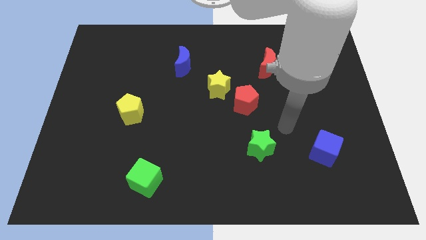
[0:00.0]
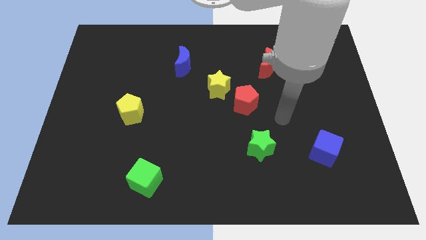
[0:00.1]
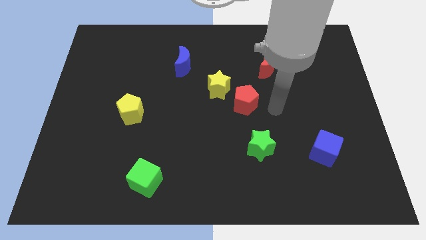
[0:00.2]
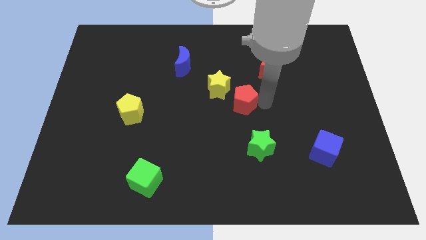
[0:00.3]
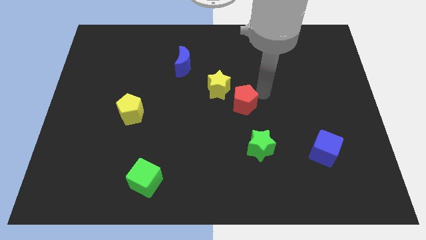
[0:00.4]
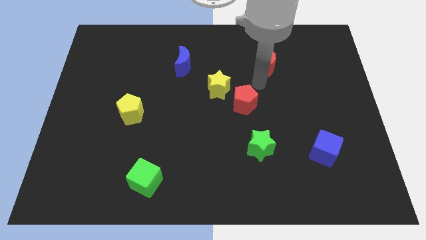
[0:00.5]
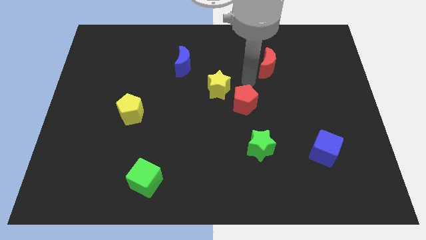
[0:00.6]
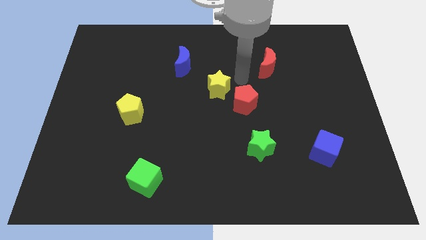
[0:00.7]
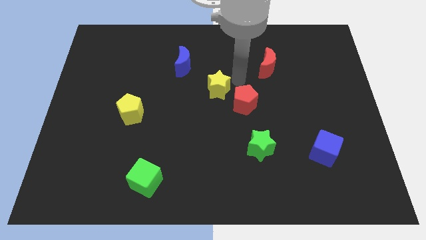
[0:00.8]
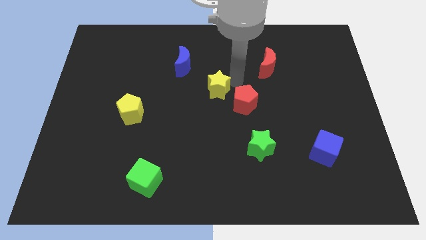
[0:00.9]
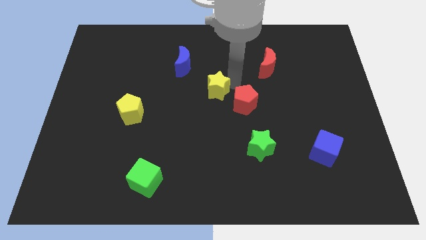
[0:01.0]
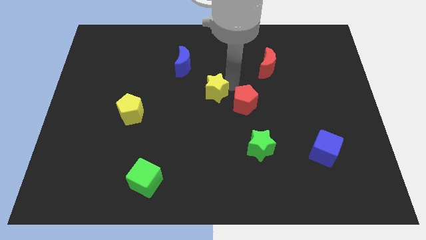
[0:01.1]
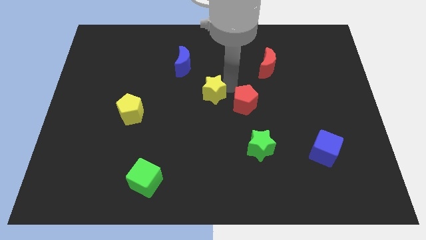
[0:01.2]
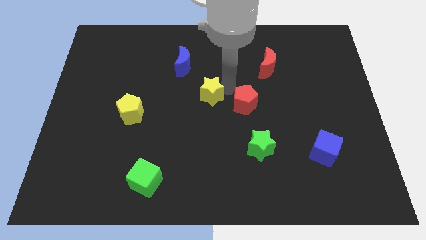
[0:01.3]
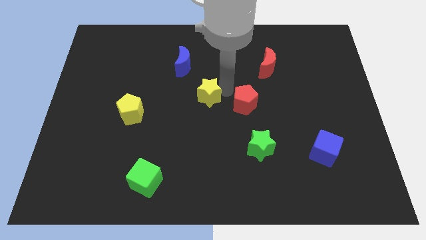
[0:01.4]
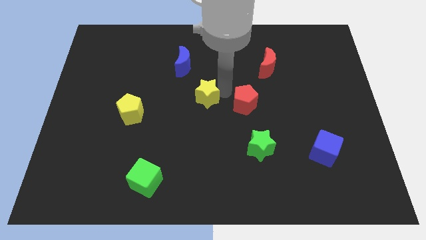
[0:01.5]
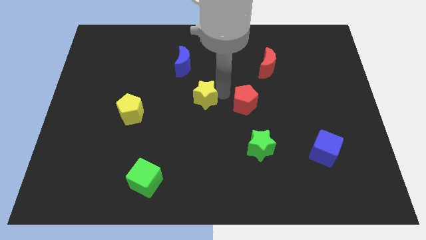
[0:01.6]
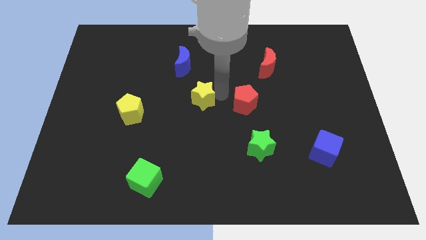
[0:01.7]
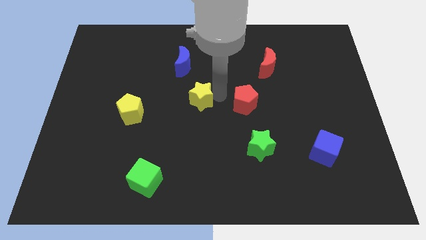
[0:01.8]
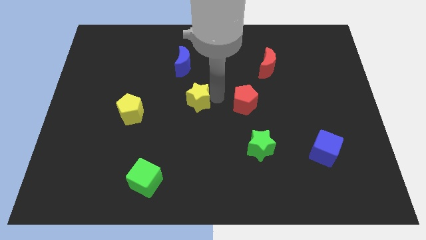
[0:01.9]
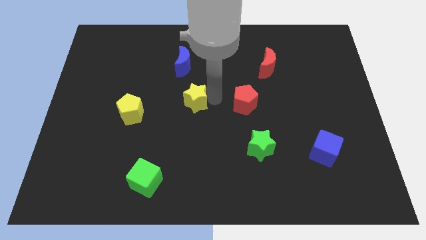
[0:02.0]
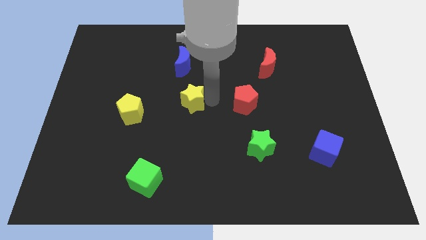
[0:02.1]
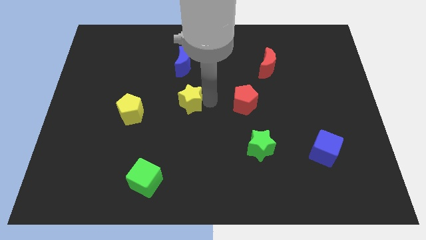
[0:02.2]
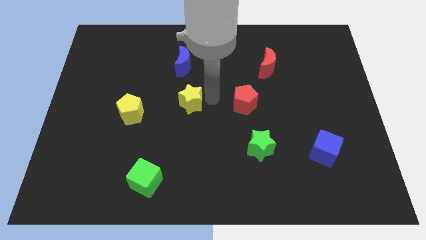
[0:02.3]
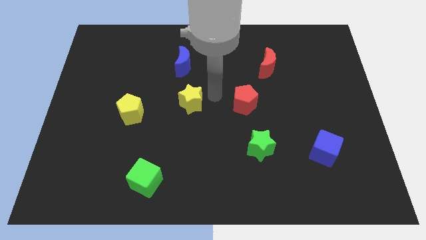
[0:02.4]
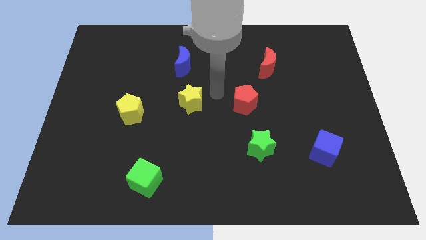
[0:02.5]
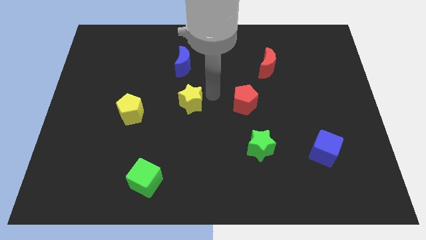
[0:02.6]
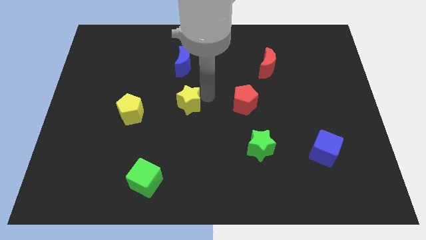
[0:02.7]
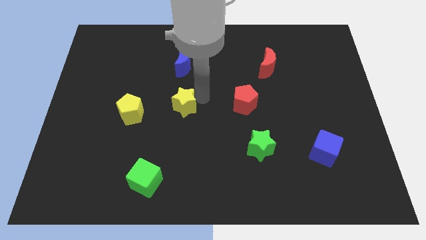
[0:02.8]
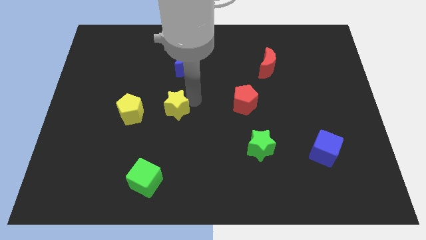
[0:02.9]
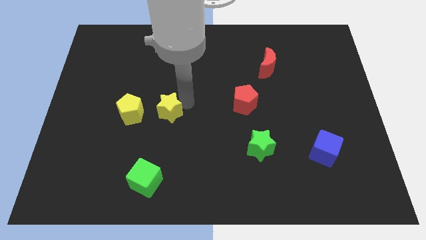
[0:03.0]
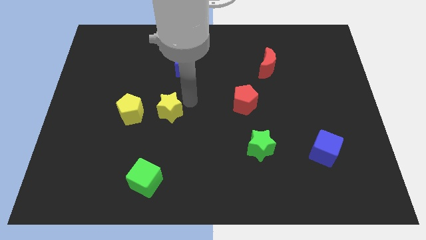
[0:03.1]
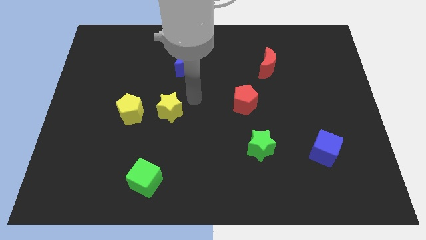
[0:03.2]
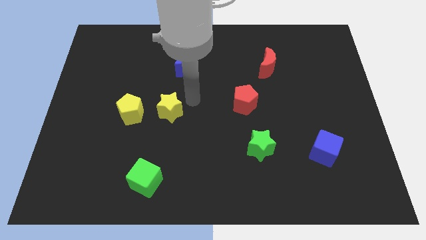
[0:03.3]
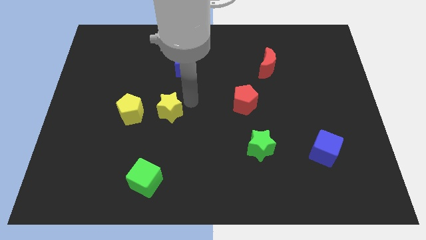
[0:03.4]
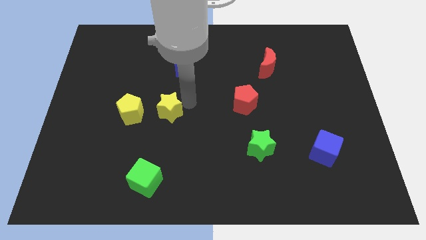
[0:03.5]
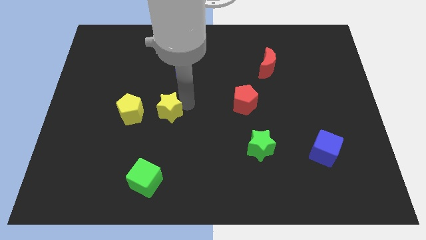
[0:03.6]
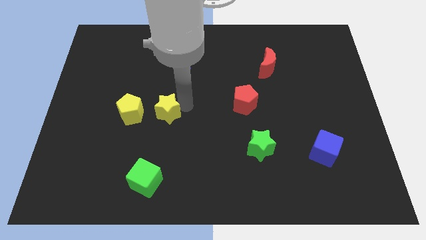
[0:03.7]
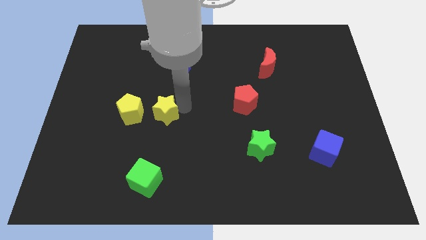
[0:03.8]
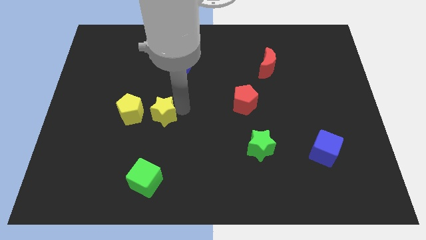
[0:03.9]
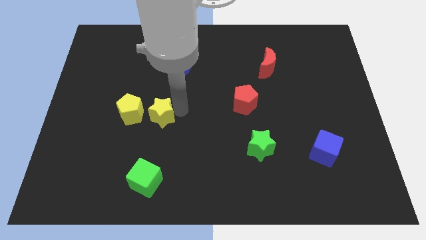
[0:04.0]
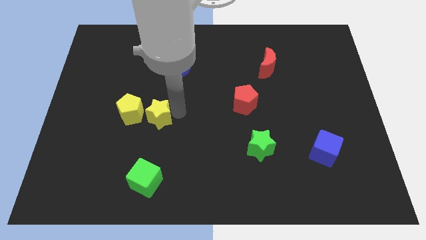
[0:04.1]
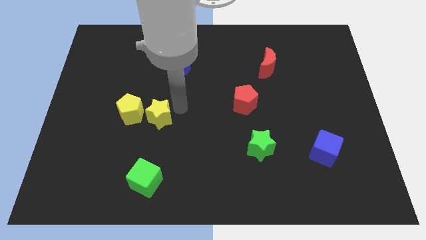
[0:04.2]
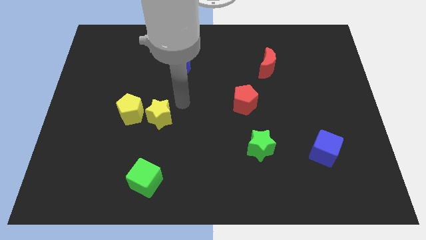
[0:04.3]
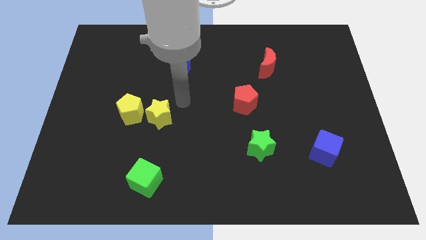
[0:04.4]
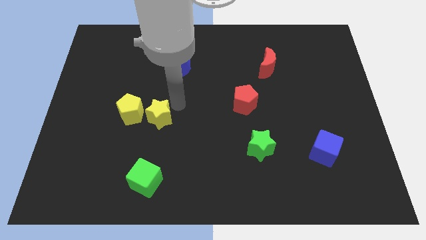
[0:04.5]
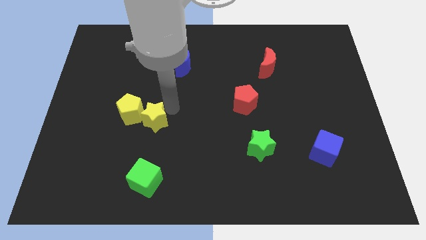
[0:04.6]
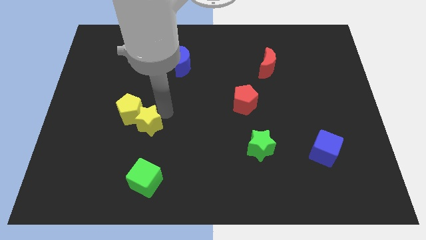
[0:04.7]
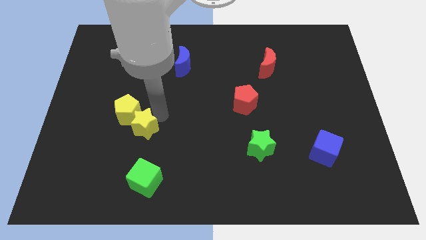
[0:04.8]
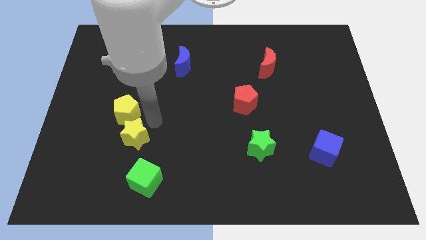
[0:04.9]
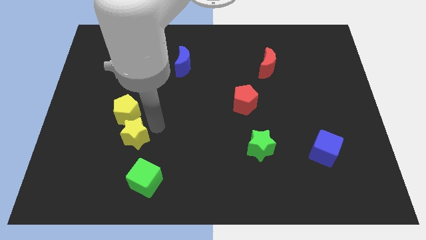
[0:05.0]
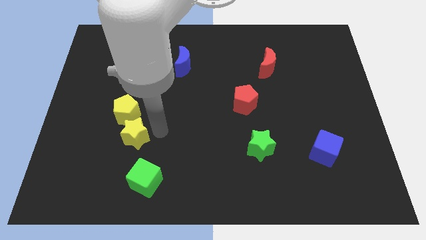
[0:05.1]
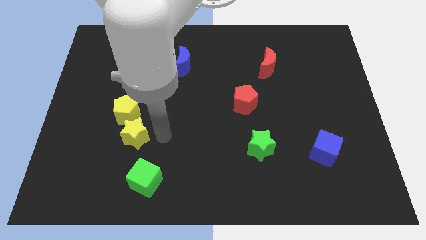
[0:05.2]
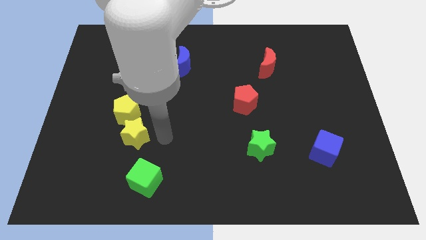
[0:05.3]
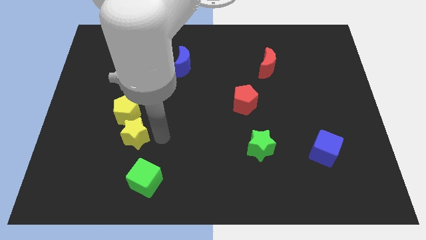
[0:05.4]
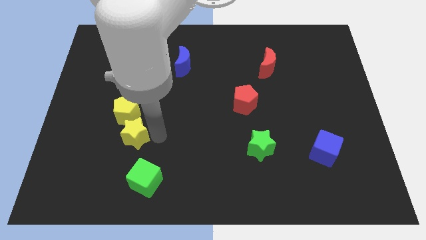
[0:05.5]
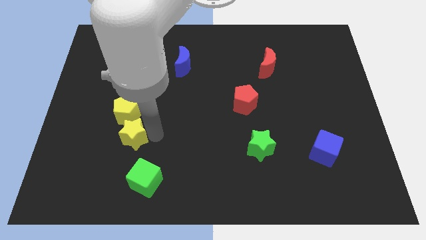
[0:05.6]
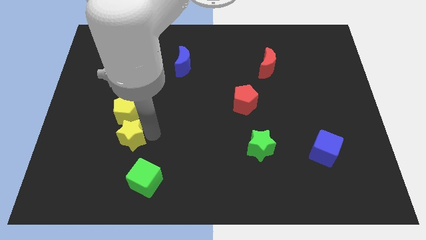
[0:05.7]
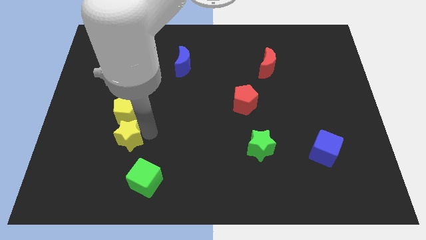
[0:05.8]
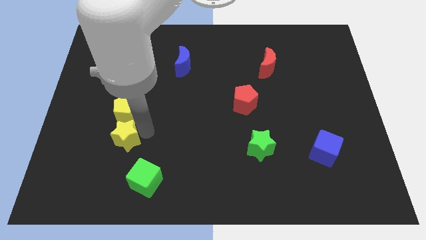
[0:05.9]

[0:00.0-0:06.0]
move the yellow star to the bottom left of the yellow pentagon

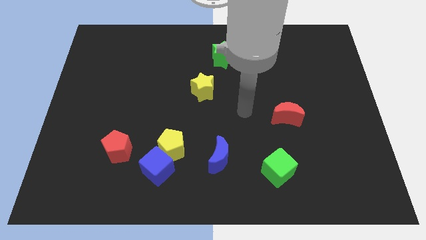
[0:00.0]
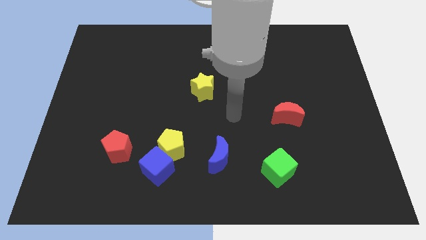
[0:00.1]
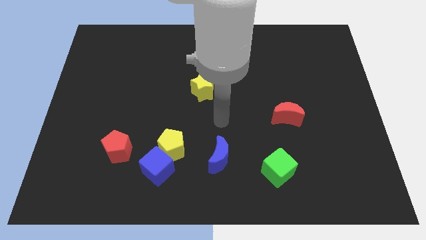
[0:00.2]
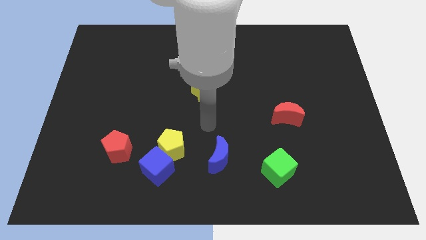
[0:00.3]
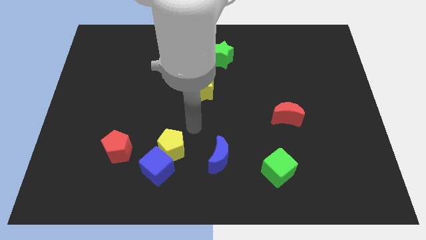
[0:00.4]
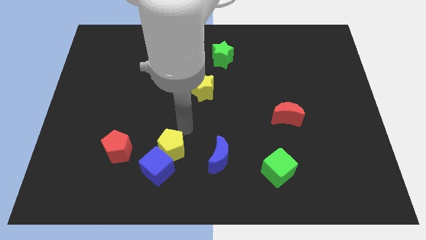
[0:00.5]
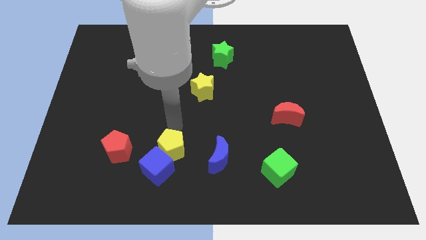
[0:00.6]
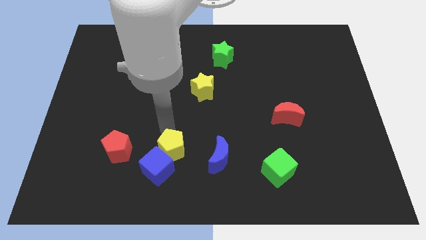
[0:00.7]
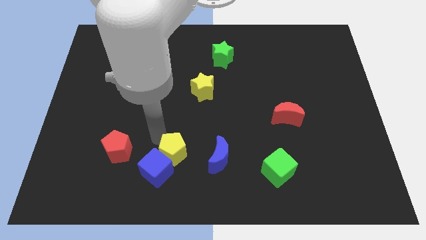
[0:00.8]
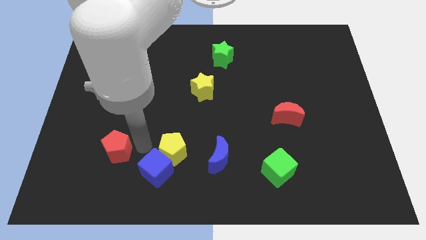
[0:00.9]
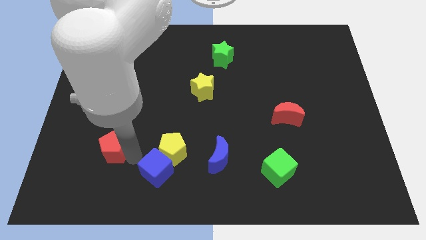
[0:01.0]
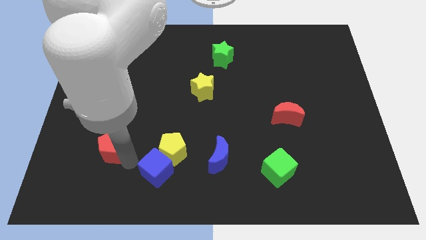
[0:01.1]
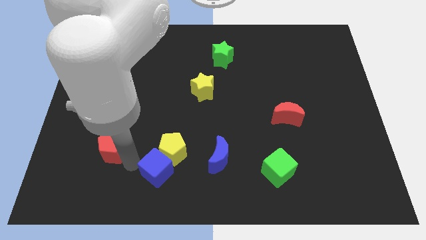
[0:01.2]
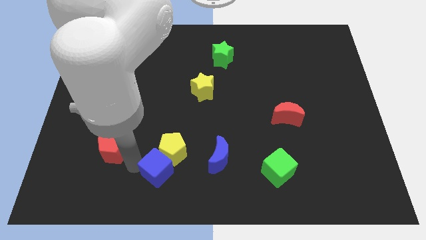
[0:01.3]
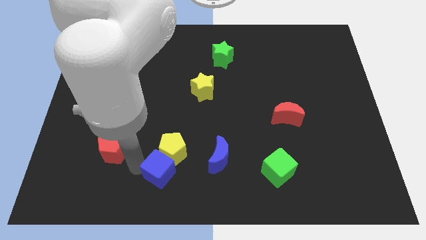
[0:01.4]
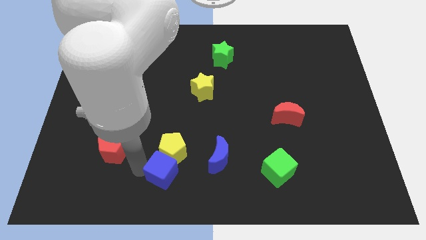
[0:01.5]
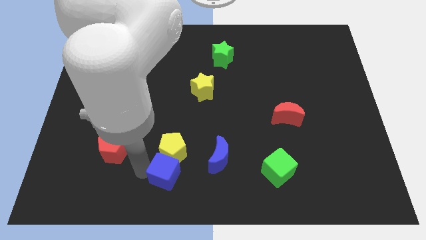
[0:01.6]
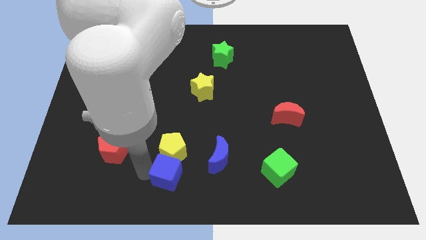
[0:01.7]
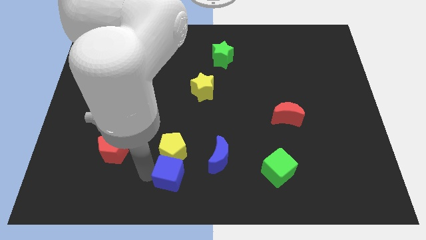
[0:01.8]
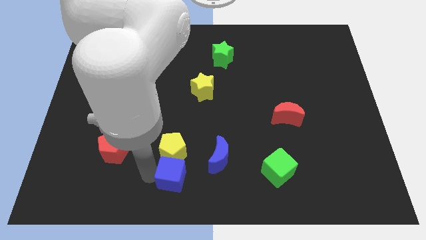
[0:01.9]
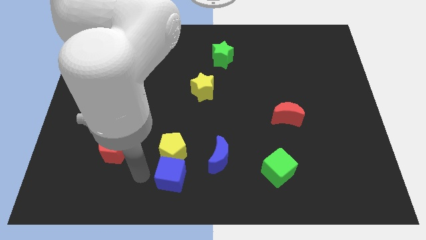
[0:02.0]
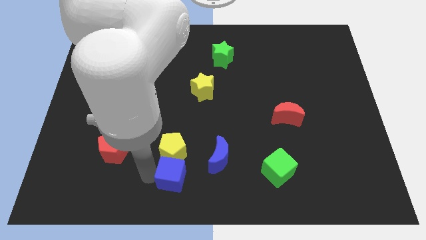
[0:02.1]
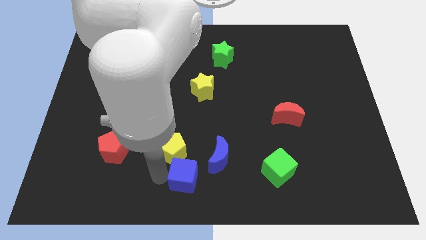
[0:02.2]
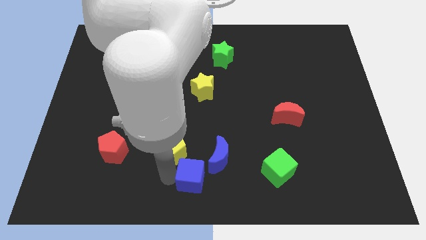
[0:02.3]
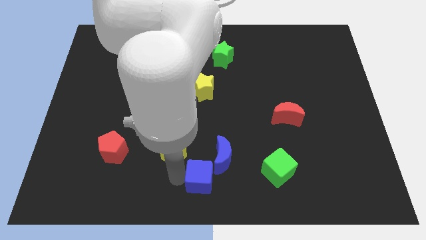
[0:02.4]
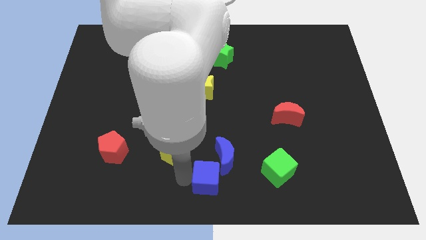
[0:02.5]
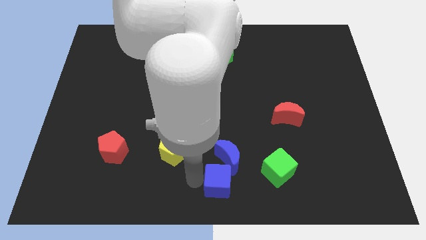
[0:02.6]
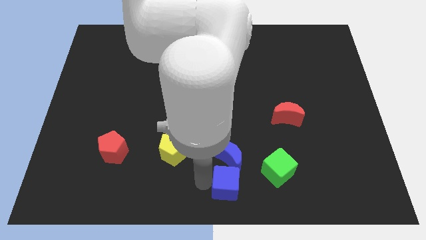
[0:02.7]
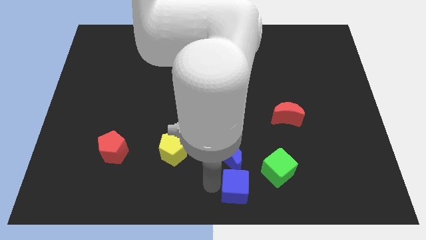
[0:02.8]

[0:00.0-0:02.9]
move the blue cube to the bottom right side of the blue moon
